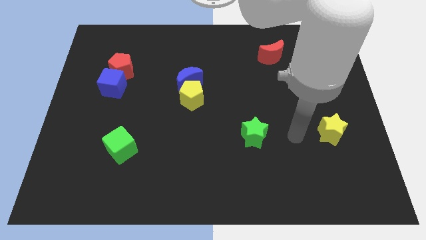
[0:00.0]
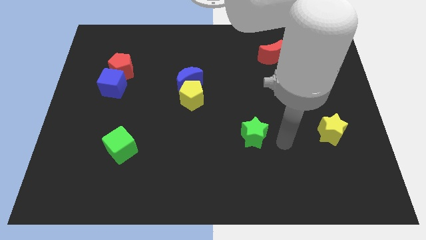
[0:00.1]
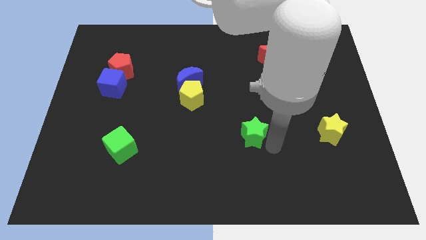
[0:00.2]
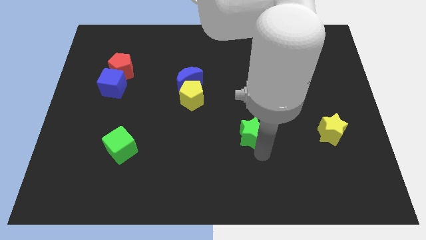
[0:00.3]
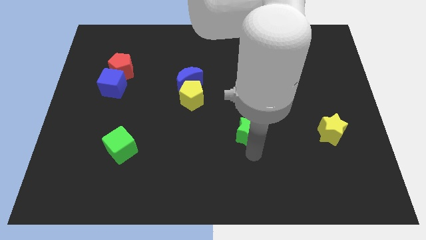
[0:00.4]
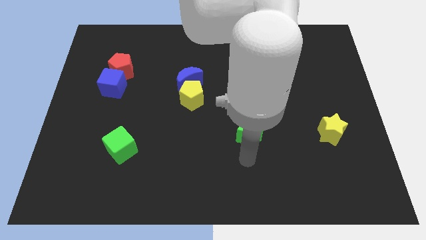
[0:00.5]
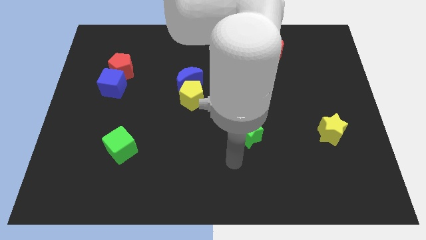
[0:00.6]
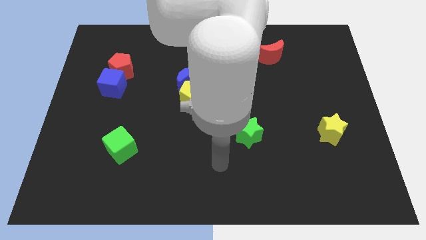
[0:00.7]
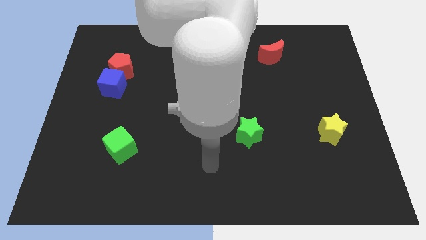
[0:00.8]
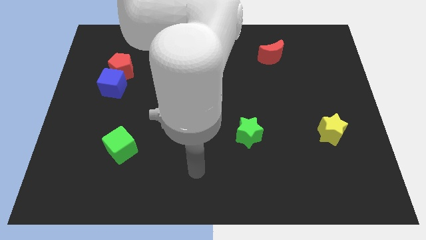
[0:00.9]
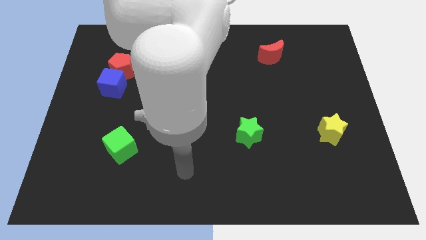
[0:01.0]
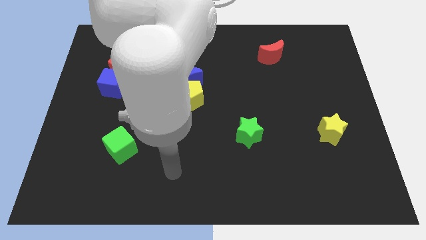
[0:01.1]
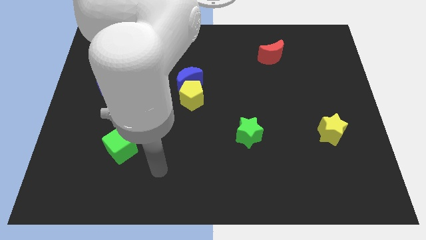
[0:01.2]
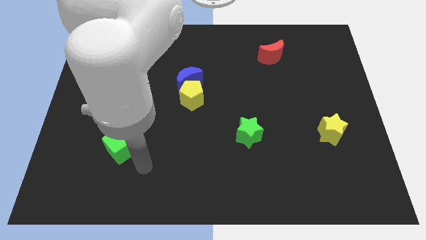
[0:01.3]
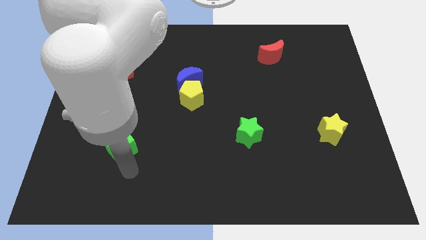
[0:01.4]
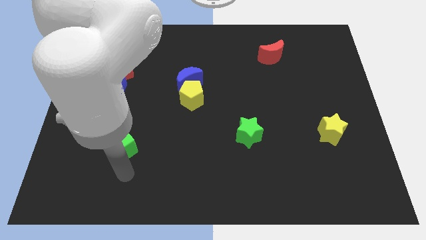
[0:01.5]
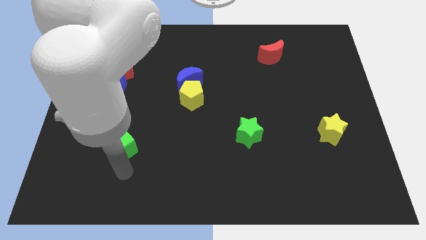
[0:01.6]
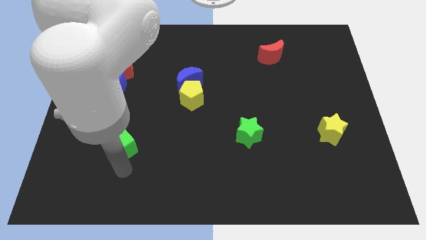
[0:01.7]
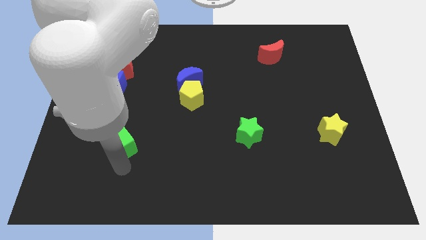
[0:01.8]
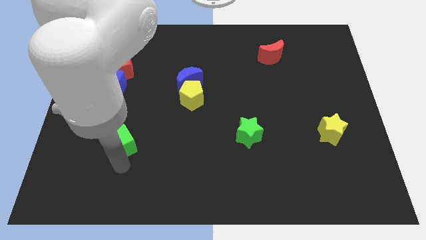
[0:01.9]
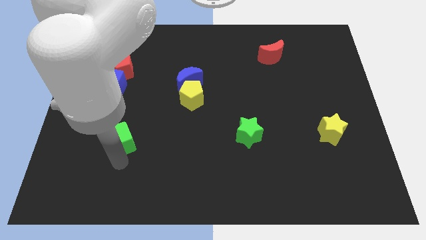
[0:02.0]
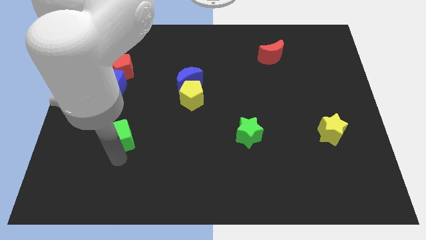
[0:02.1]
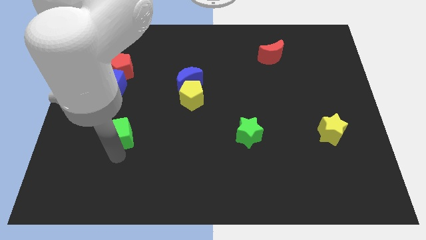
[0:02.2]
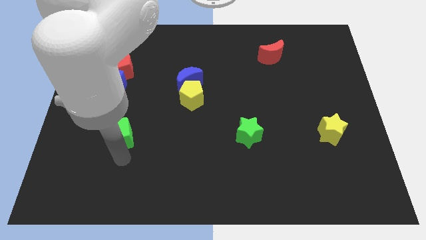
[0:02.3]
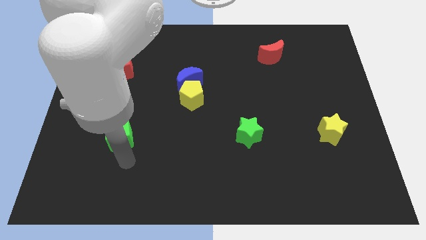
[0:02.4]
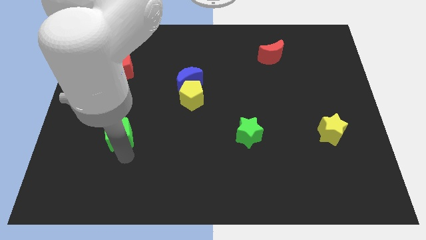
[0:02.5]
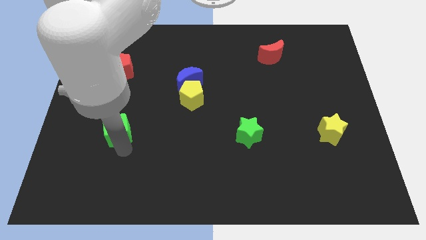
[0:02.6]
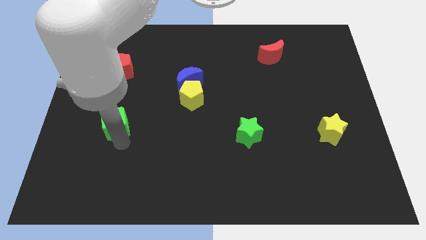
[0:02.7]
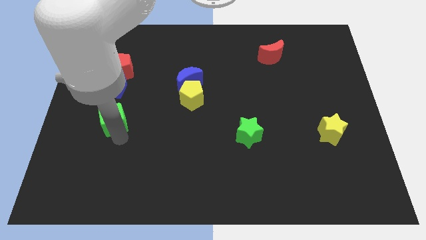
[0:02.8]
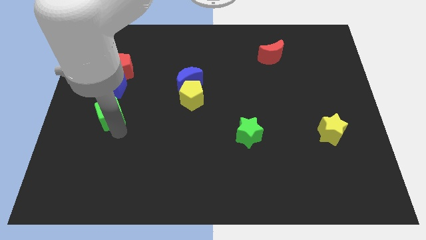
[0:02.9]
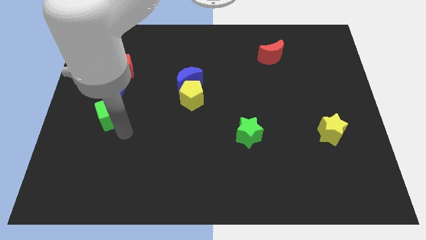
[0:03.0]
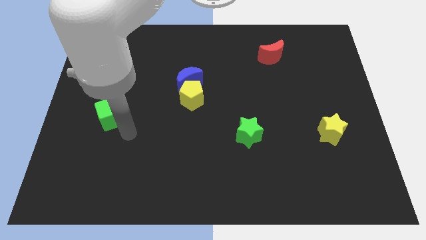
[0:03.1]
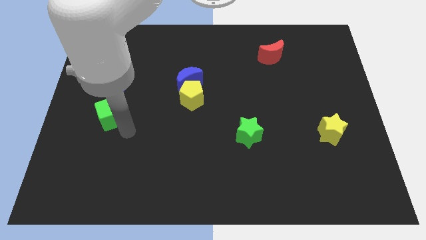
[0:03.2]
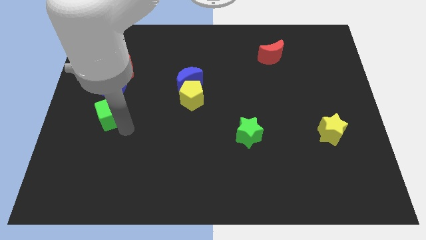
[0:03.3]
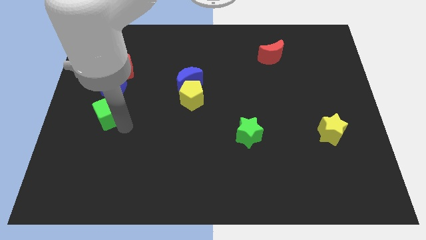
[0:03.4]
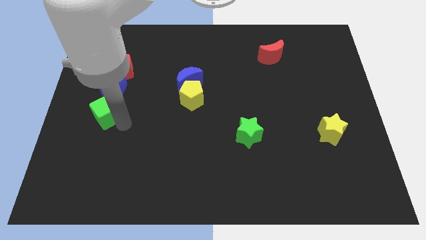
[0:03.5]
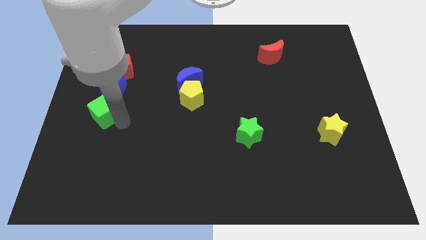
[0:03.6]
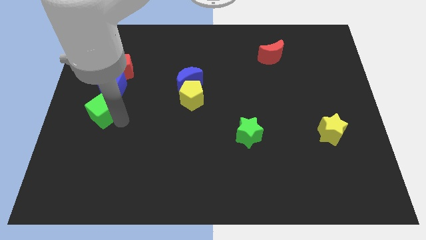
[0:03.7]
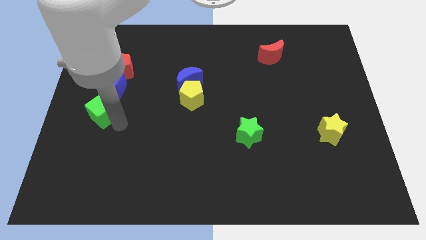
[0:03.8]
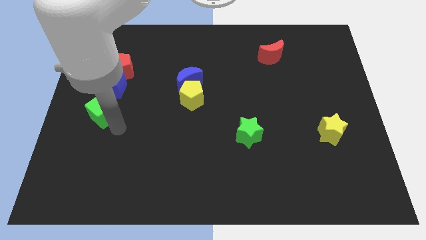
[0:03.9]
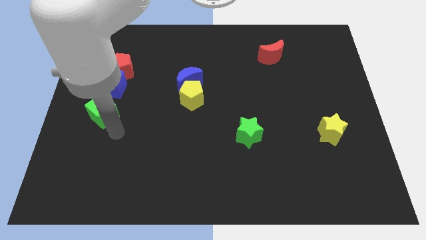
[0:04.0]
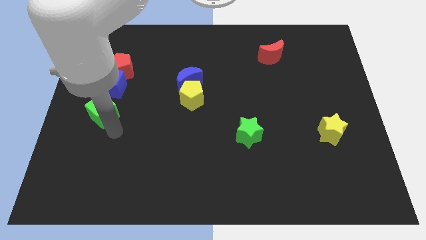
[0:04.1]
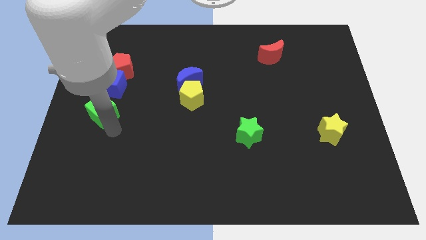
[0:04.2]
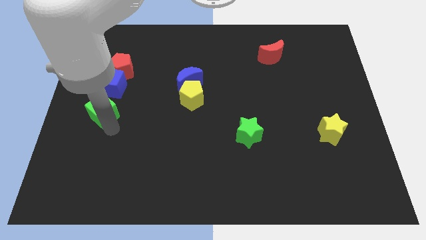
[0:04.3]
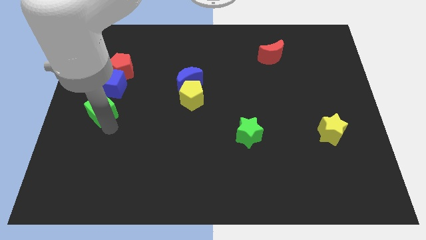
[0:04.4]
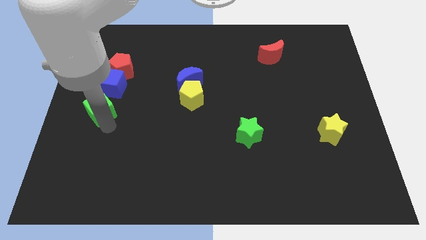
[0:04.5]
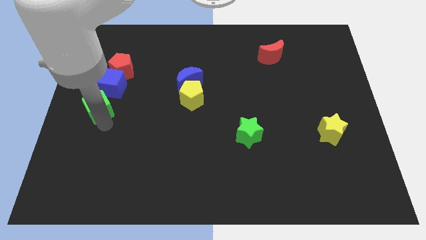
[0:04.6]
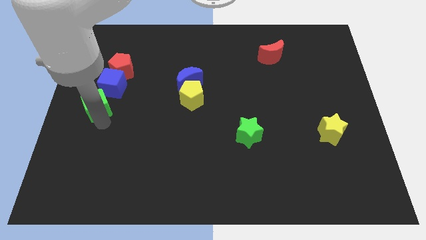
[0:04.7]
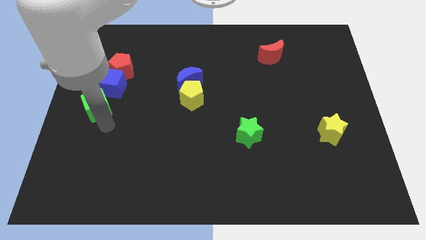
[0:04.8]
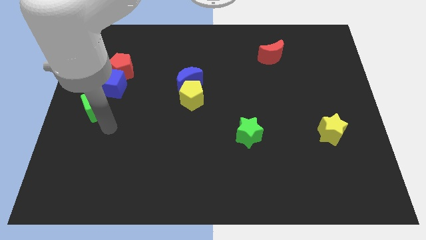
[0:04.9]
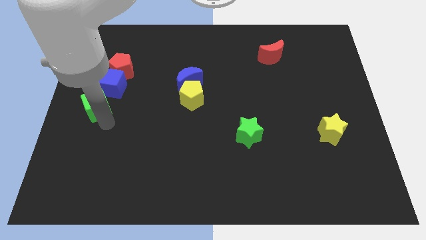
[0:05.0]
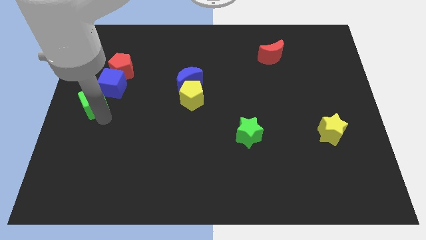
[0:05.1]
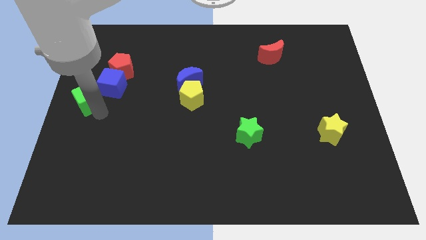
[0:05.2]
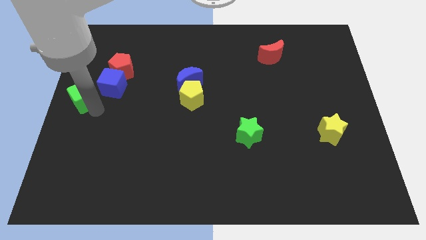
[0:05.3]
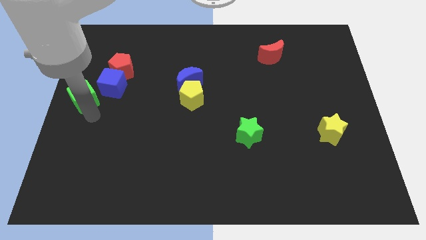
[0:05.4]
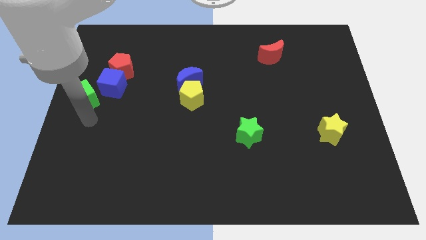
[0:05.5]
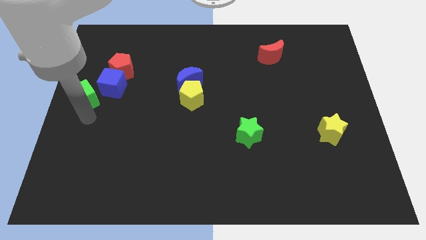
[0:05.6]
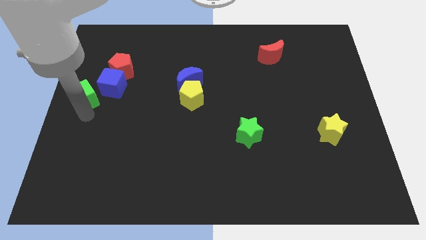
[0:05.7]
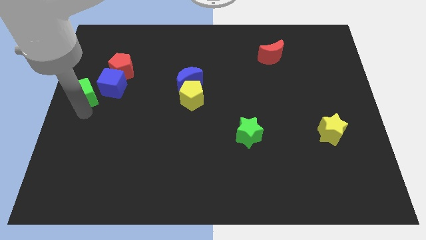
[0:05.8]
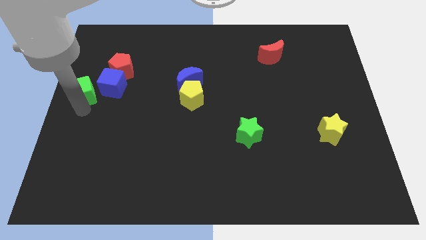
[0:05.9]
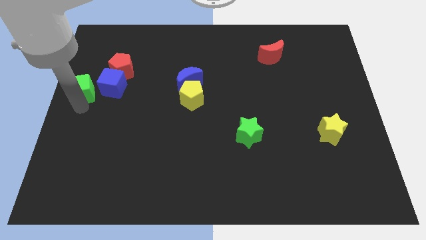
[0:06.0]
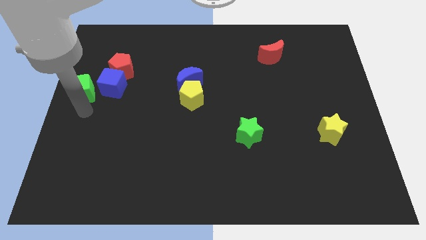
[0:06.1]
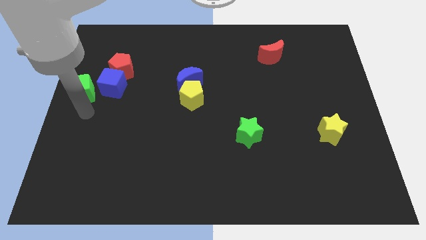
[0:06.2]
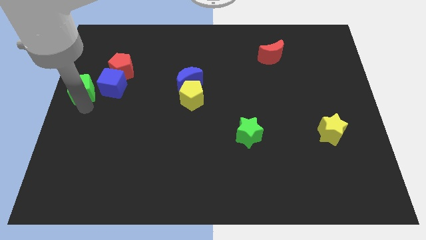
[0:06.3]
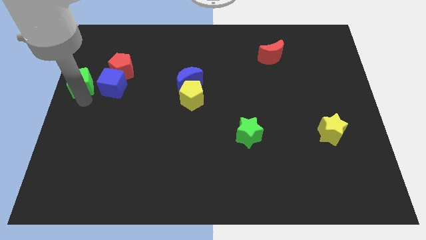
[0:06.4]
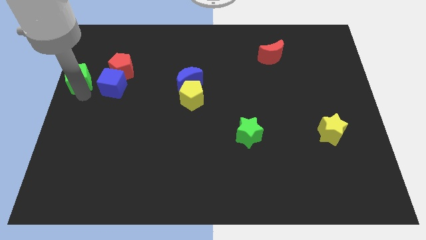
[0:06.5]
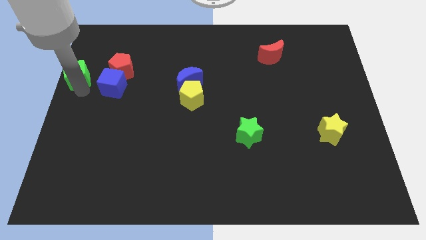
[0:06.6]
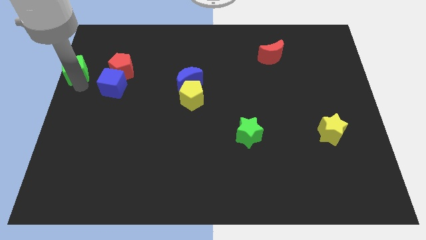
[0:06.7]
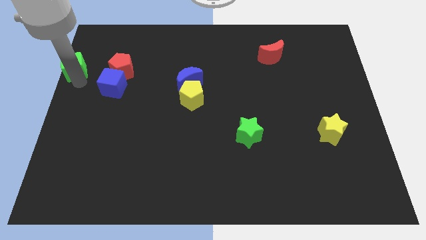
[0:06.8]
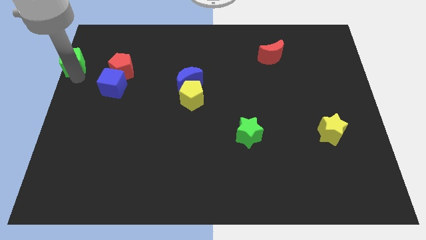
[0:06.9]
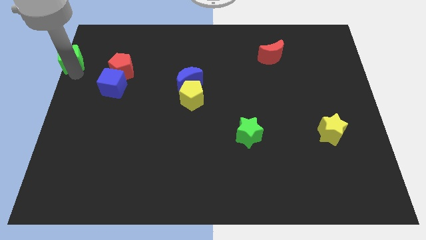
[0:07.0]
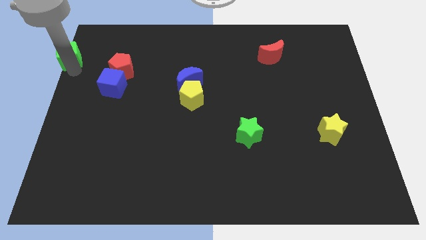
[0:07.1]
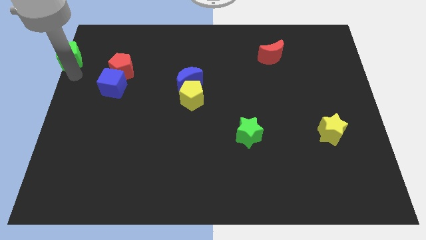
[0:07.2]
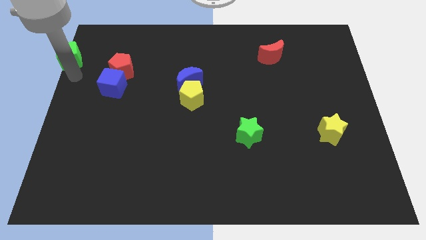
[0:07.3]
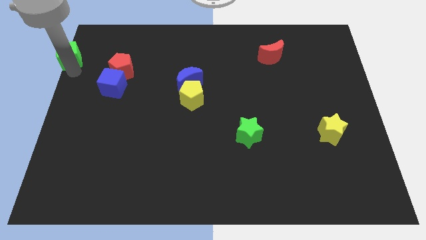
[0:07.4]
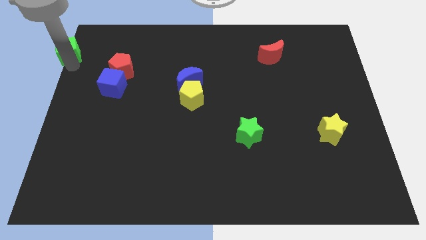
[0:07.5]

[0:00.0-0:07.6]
push the green cube to the top left of the board
